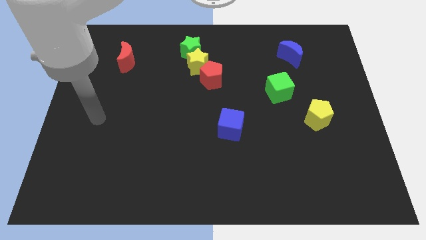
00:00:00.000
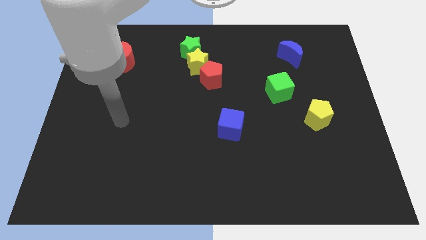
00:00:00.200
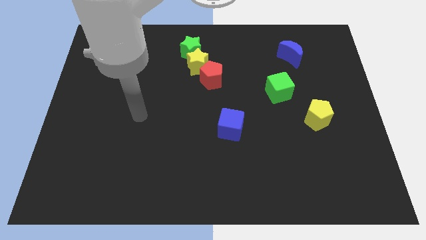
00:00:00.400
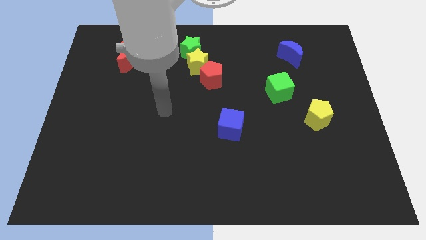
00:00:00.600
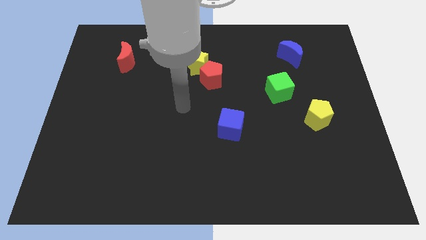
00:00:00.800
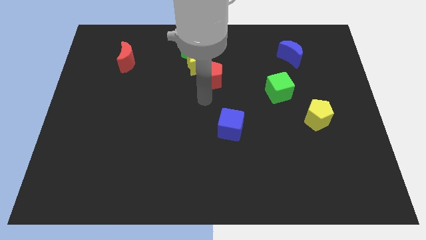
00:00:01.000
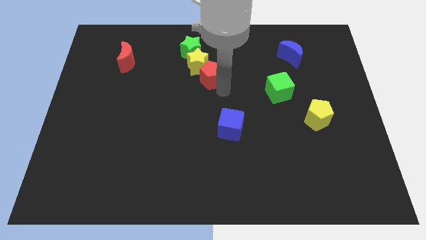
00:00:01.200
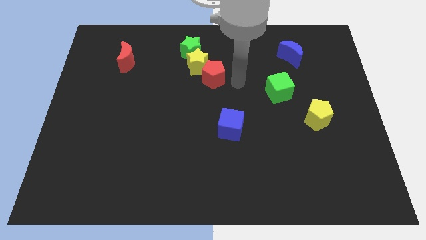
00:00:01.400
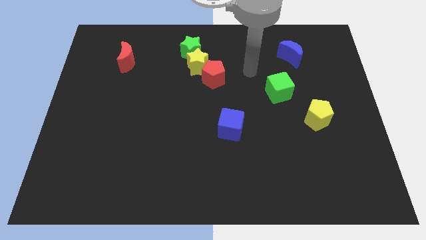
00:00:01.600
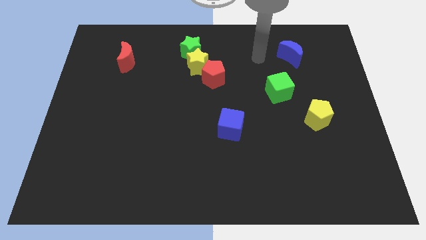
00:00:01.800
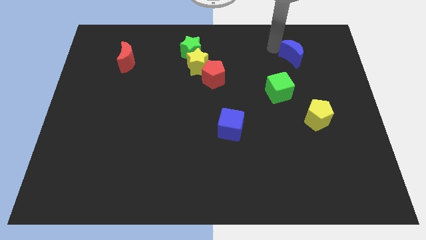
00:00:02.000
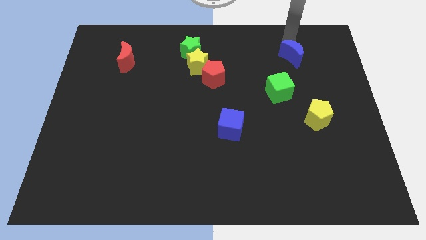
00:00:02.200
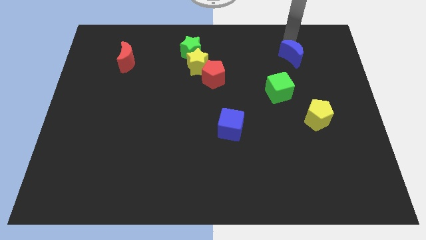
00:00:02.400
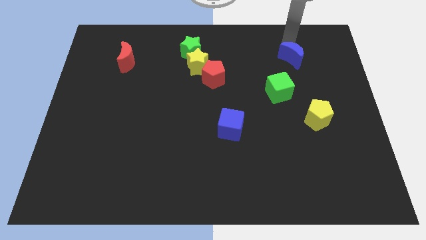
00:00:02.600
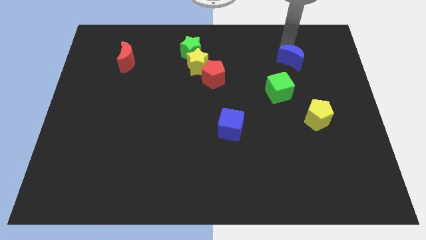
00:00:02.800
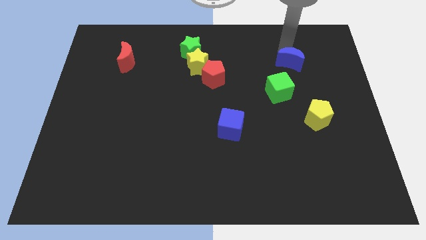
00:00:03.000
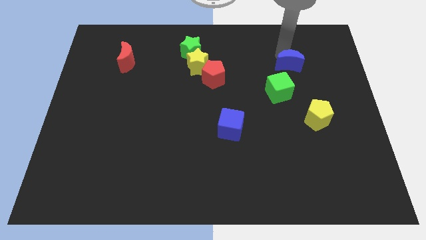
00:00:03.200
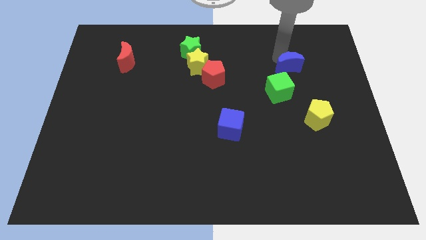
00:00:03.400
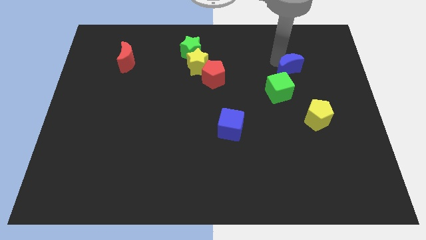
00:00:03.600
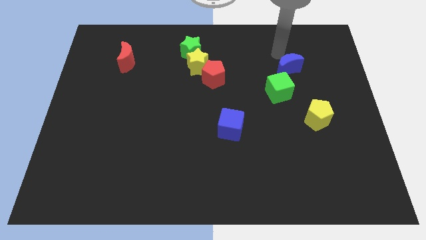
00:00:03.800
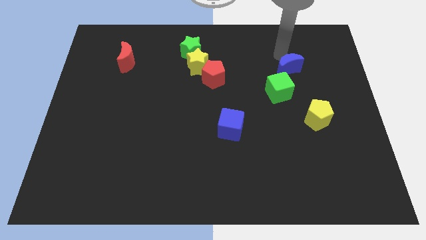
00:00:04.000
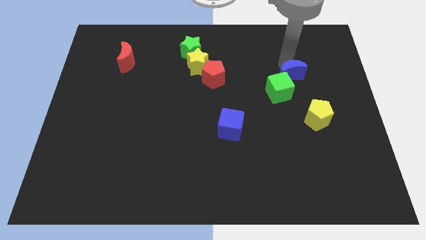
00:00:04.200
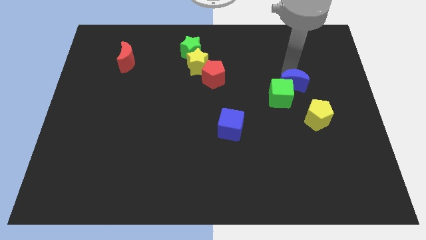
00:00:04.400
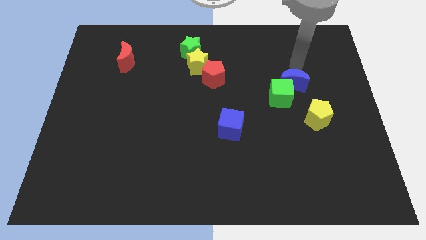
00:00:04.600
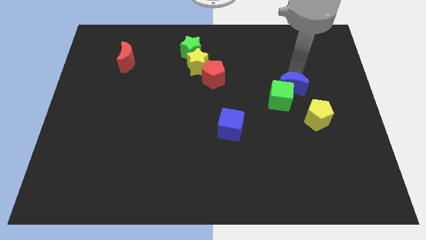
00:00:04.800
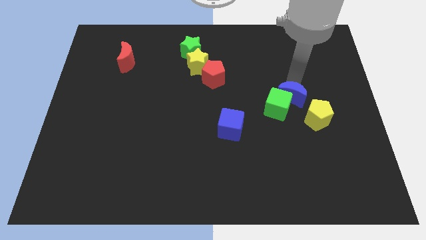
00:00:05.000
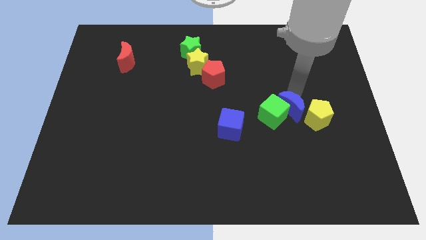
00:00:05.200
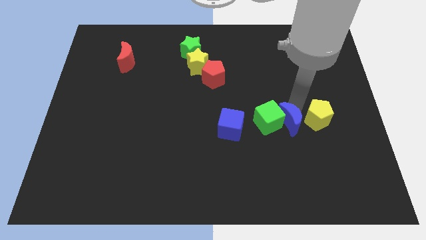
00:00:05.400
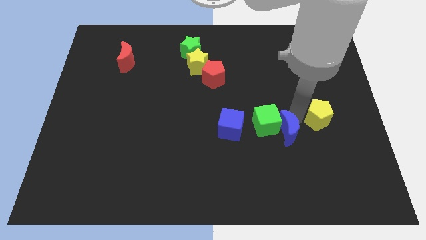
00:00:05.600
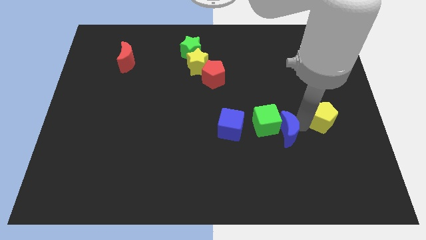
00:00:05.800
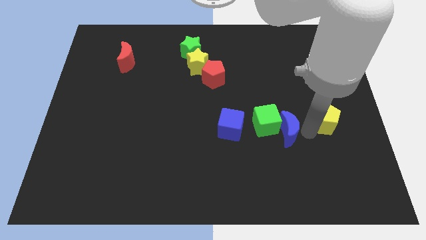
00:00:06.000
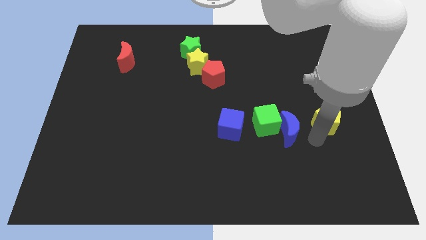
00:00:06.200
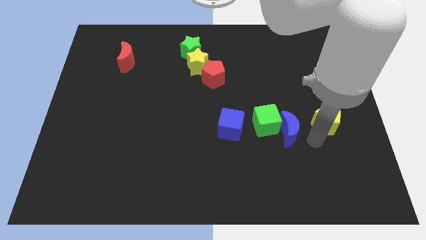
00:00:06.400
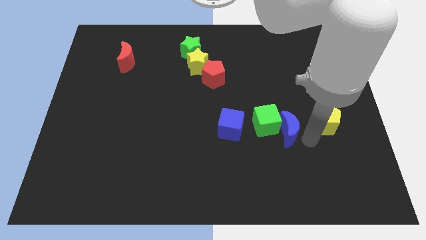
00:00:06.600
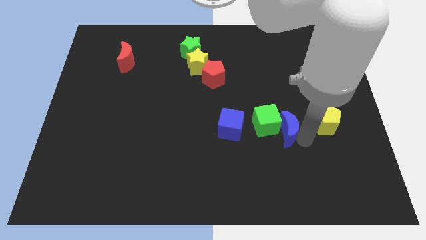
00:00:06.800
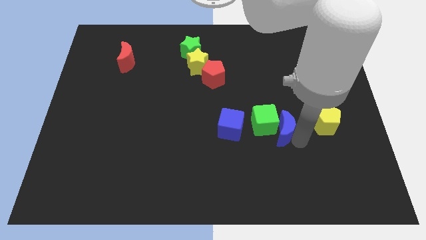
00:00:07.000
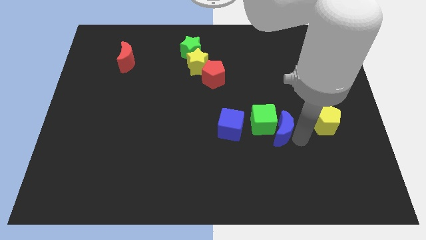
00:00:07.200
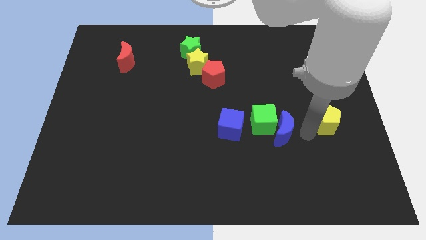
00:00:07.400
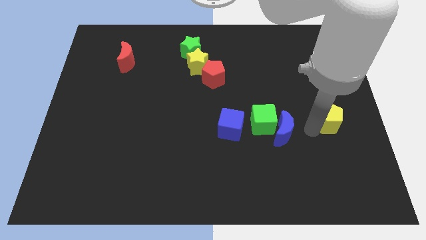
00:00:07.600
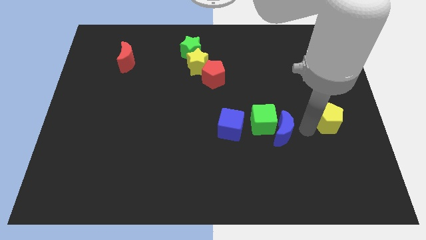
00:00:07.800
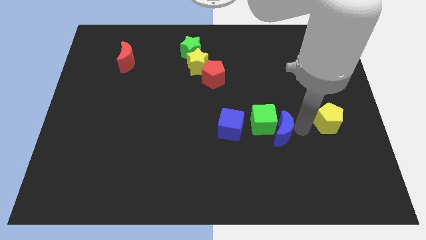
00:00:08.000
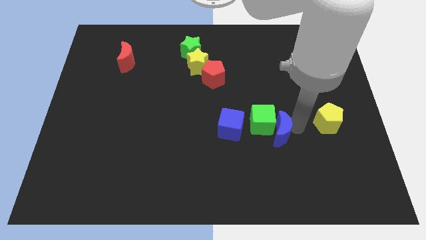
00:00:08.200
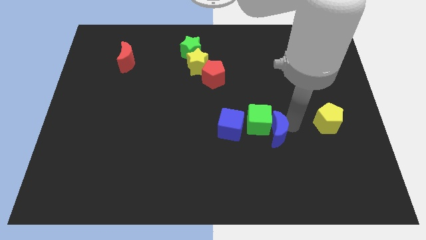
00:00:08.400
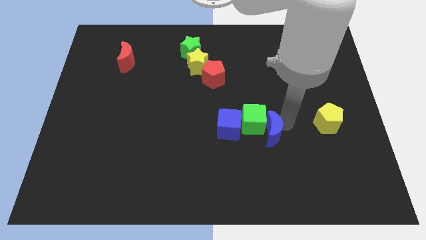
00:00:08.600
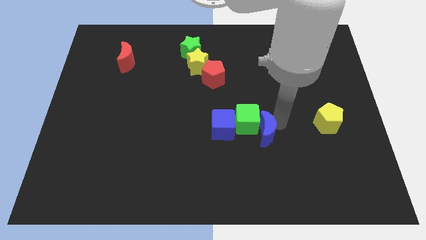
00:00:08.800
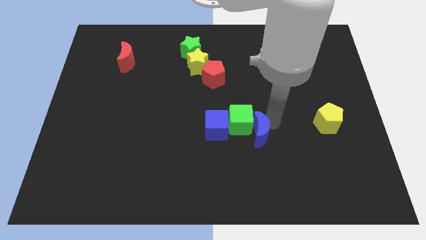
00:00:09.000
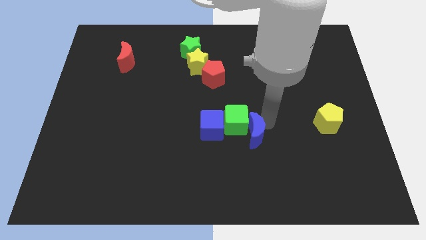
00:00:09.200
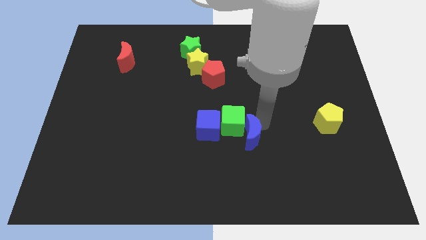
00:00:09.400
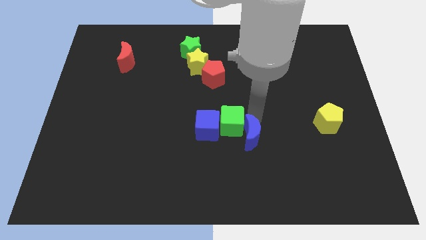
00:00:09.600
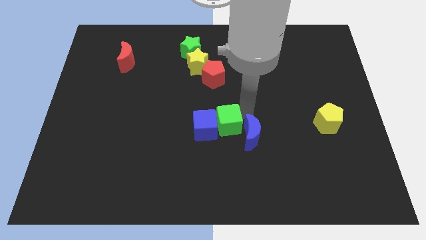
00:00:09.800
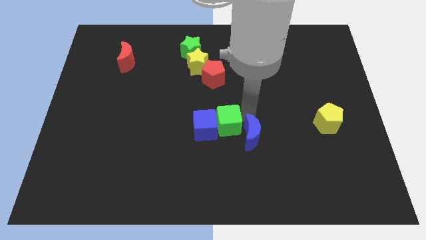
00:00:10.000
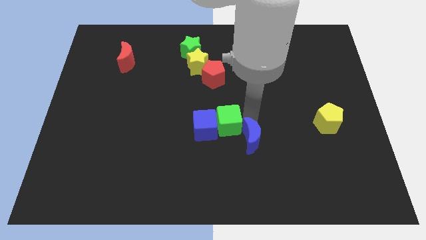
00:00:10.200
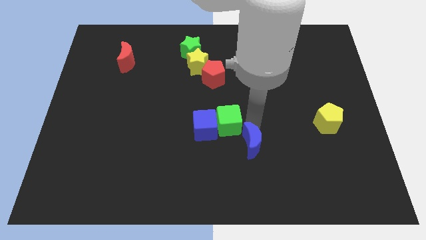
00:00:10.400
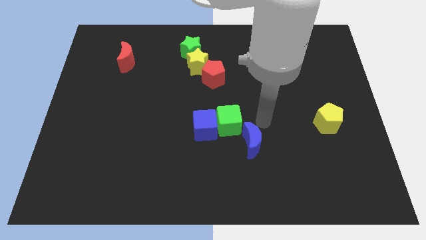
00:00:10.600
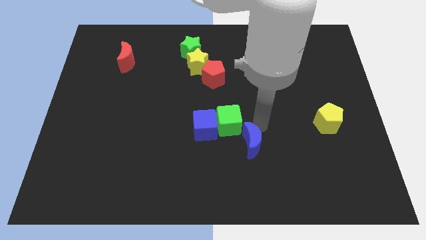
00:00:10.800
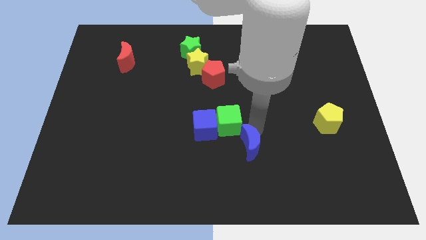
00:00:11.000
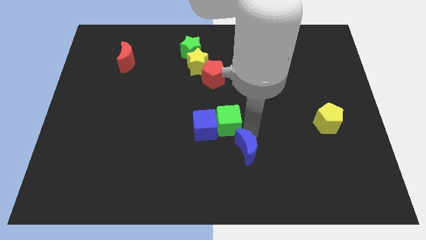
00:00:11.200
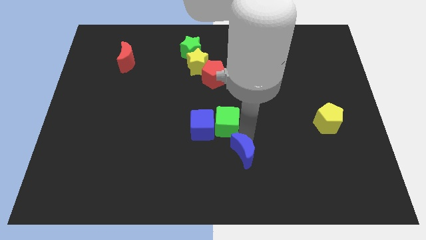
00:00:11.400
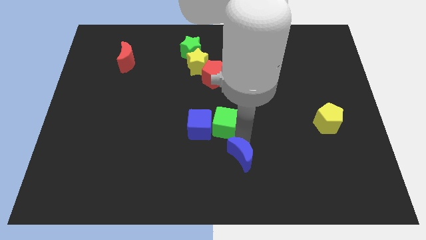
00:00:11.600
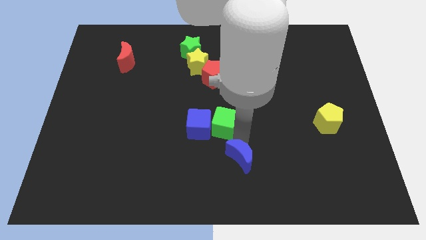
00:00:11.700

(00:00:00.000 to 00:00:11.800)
put the blue moon to the bottom
